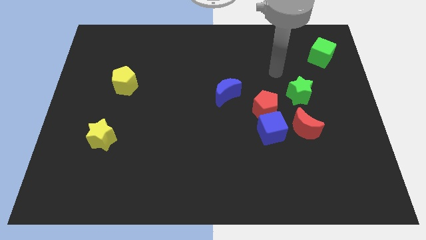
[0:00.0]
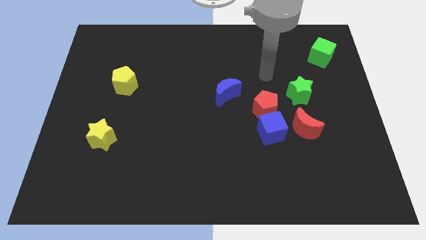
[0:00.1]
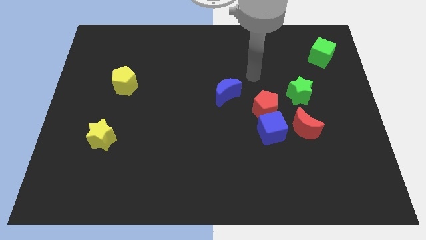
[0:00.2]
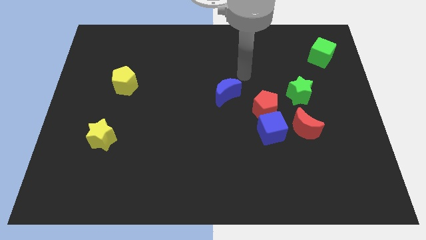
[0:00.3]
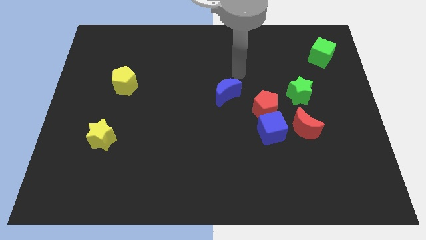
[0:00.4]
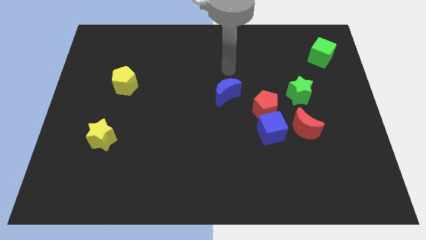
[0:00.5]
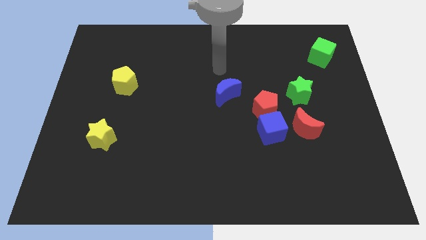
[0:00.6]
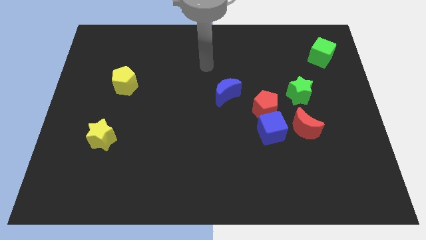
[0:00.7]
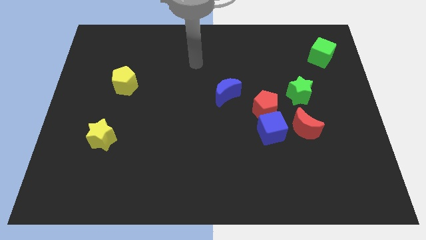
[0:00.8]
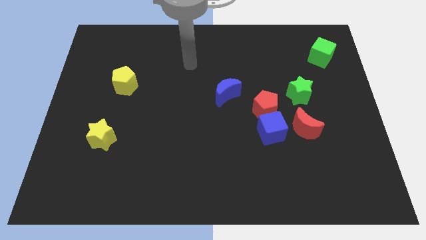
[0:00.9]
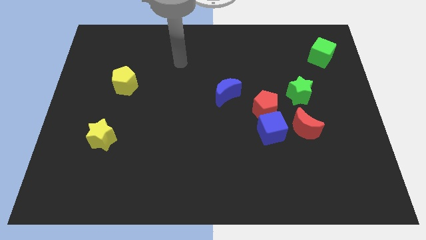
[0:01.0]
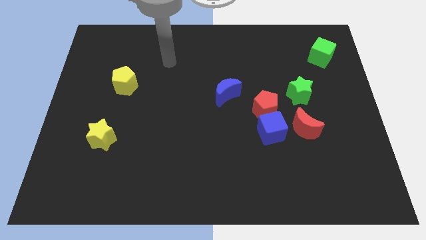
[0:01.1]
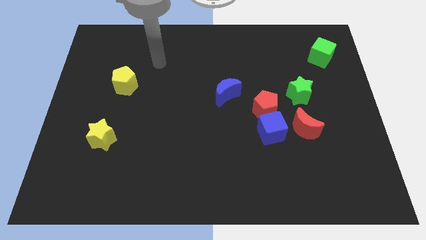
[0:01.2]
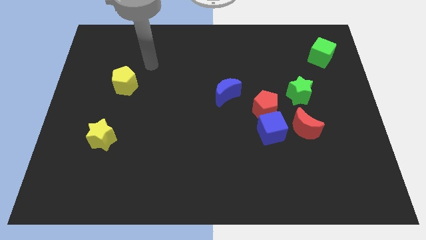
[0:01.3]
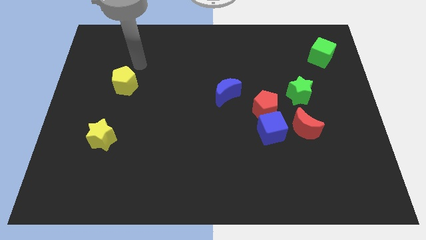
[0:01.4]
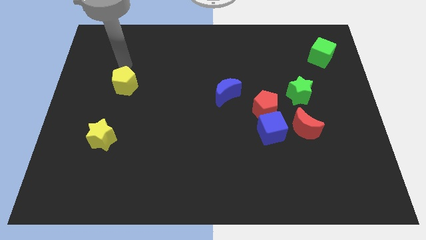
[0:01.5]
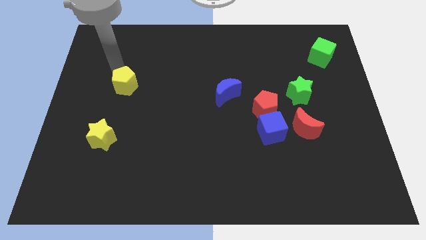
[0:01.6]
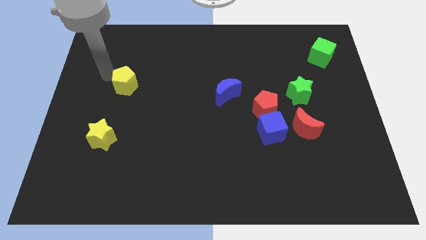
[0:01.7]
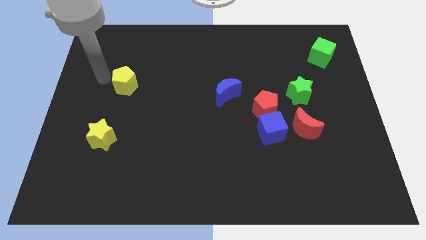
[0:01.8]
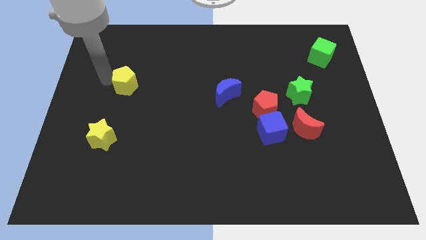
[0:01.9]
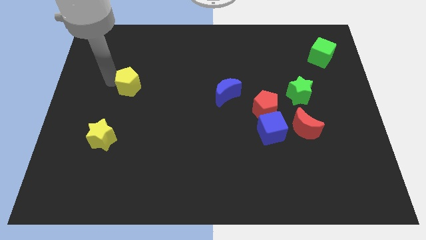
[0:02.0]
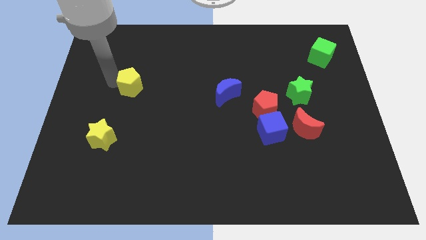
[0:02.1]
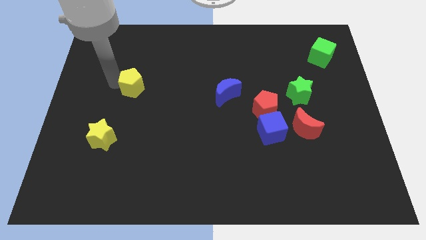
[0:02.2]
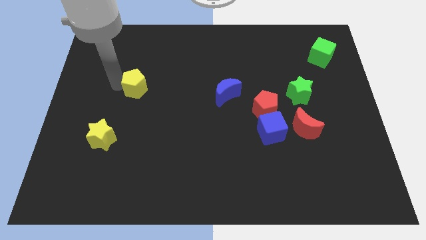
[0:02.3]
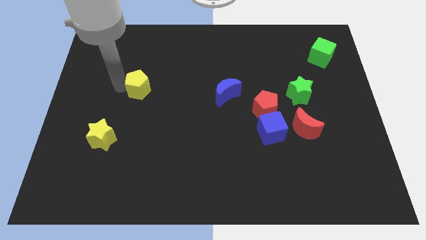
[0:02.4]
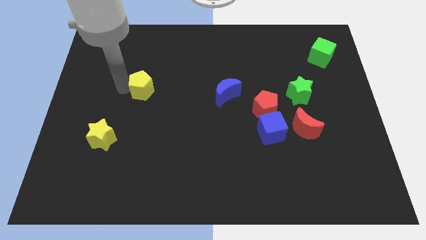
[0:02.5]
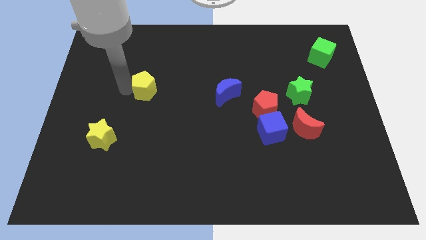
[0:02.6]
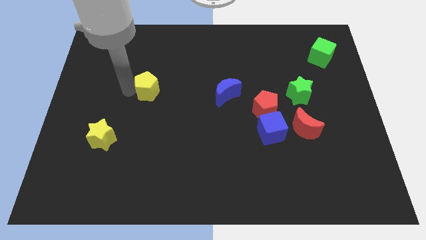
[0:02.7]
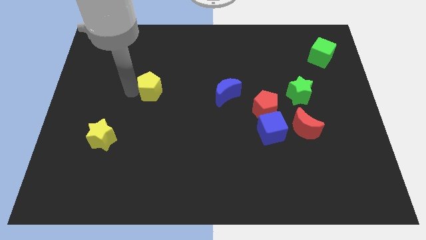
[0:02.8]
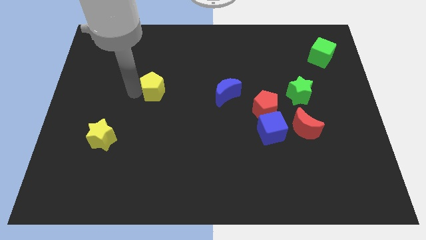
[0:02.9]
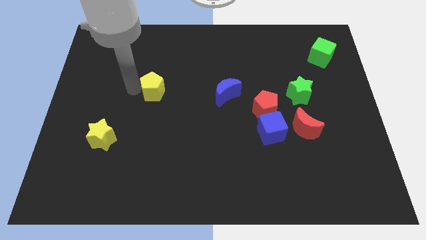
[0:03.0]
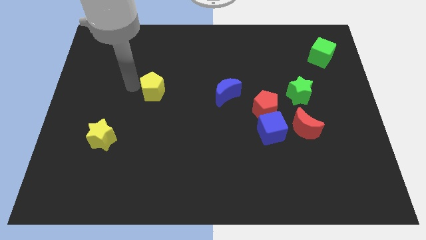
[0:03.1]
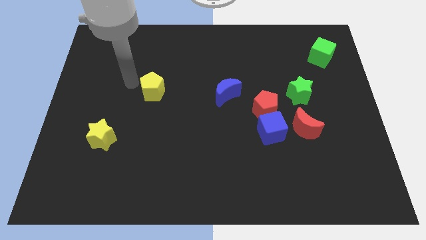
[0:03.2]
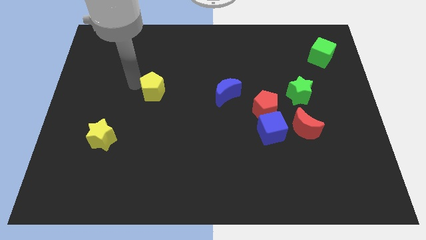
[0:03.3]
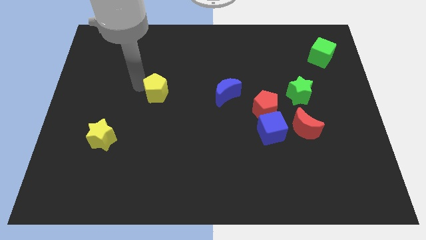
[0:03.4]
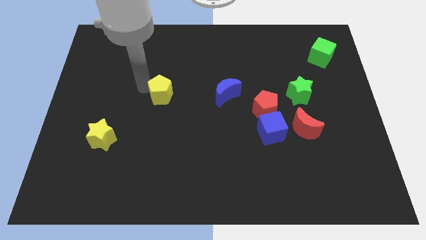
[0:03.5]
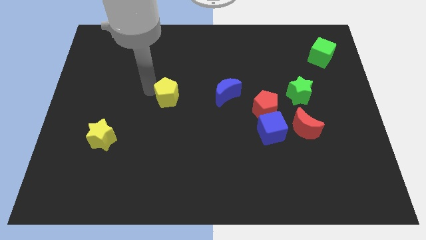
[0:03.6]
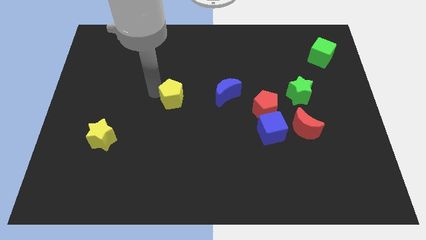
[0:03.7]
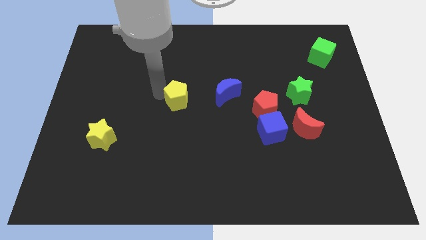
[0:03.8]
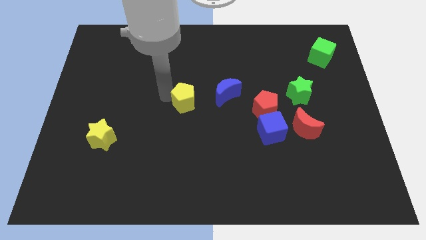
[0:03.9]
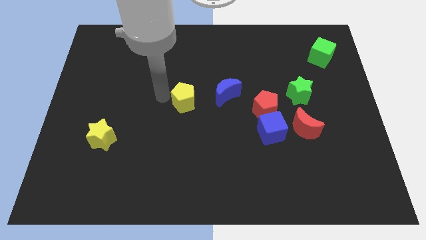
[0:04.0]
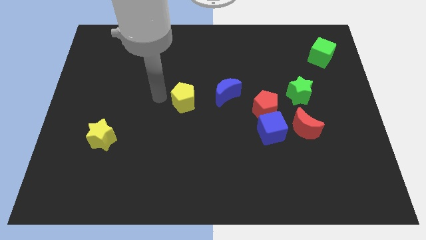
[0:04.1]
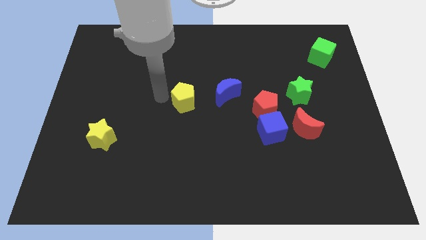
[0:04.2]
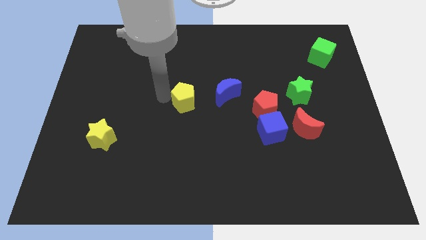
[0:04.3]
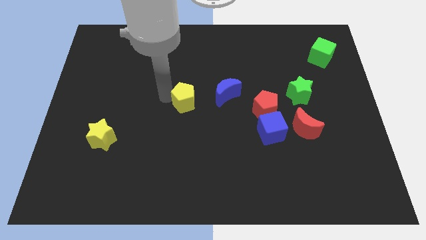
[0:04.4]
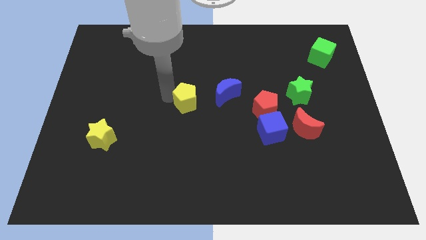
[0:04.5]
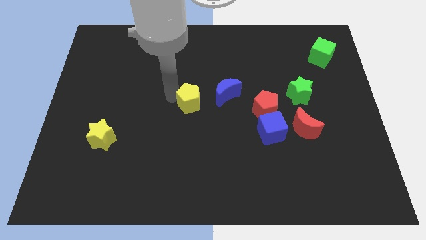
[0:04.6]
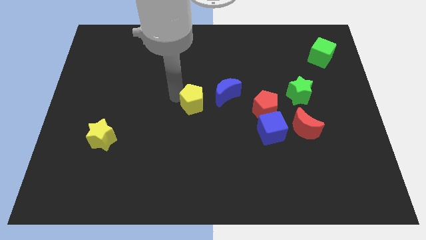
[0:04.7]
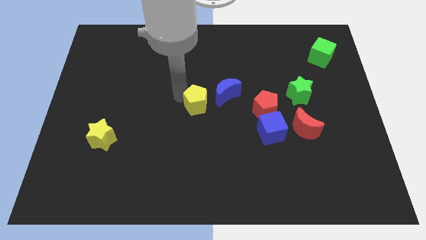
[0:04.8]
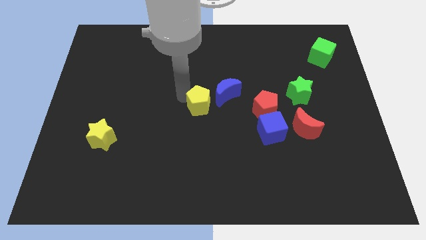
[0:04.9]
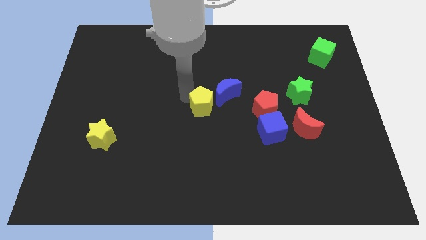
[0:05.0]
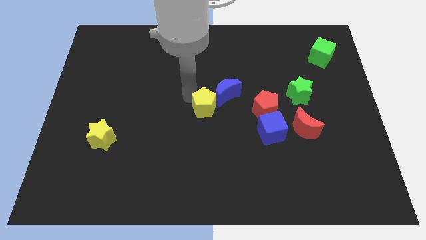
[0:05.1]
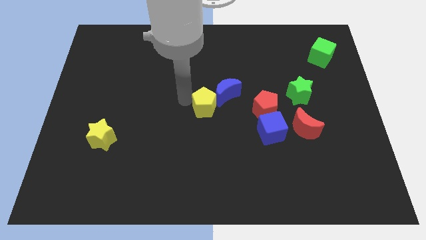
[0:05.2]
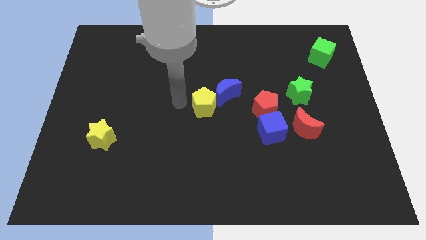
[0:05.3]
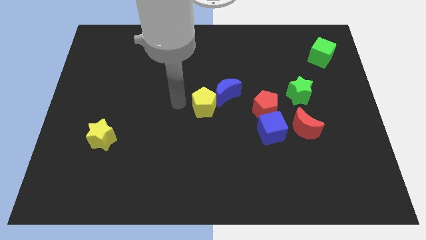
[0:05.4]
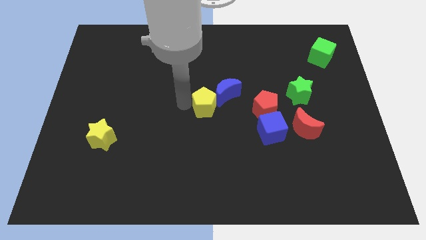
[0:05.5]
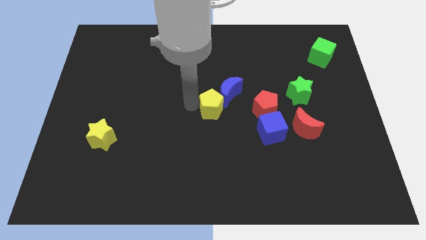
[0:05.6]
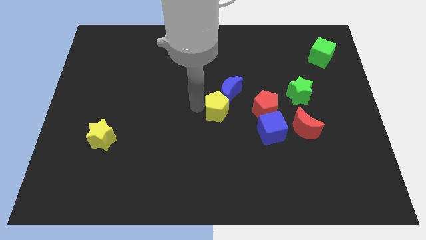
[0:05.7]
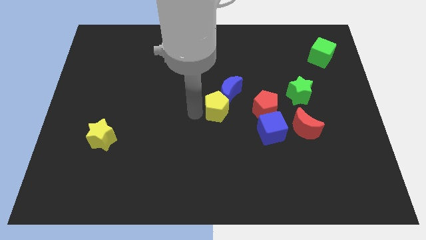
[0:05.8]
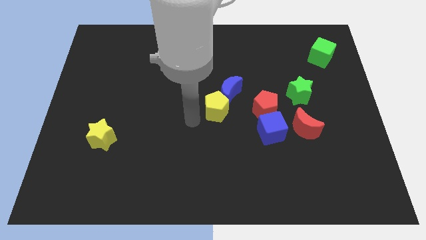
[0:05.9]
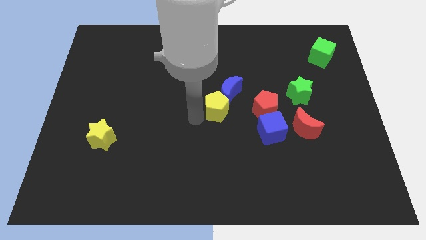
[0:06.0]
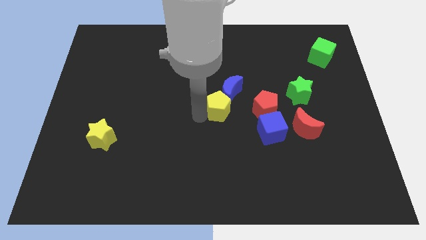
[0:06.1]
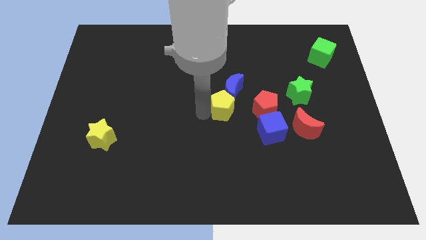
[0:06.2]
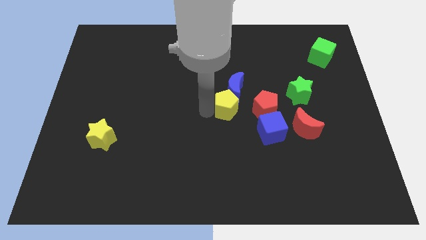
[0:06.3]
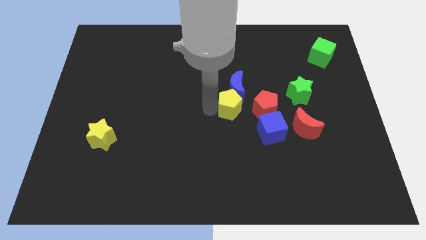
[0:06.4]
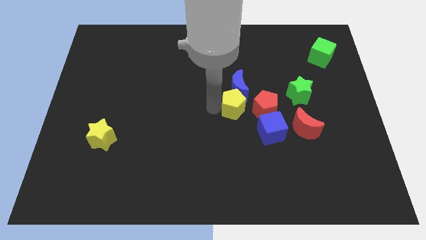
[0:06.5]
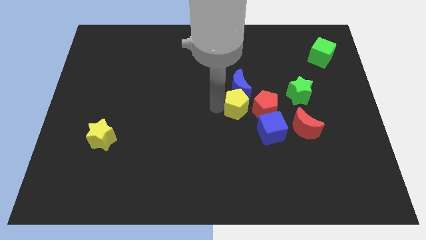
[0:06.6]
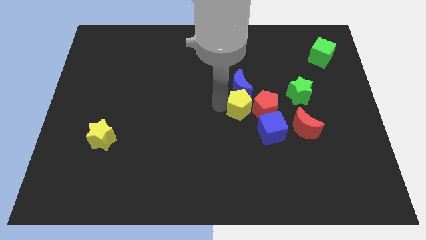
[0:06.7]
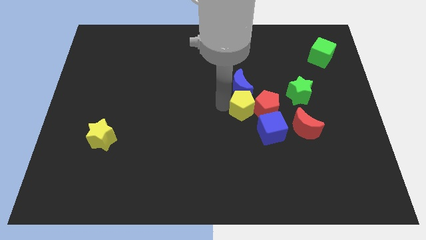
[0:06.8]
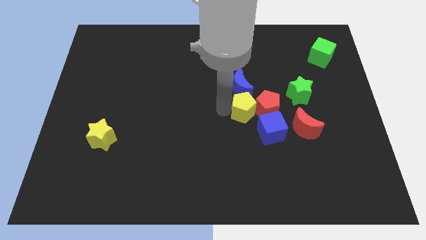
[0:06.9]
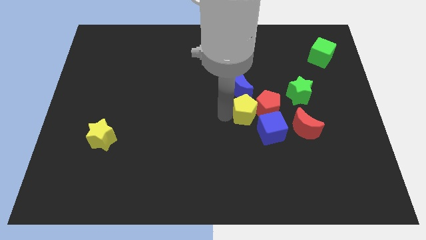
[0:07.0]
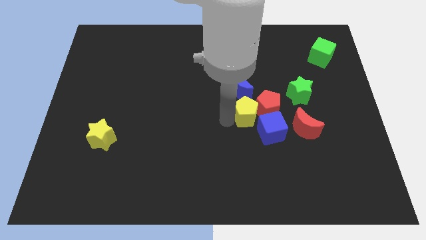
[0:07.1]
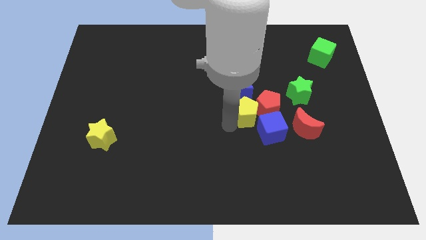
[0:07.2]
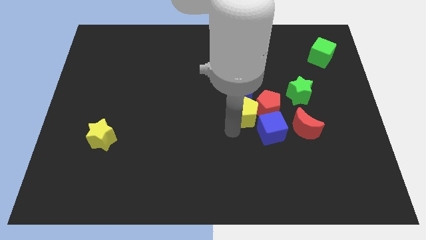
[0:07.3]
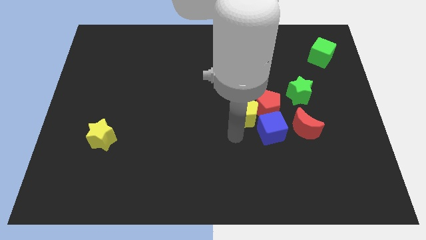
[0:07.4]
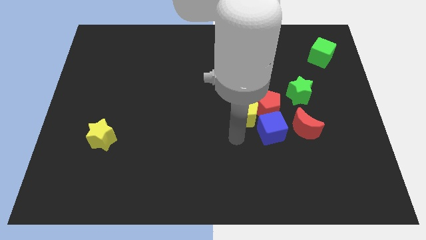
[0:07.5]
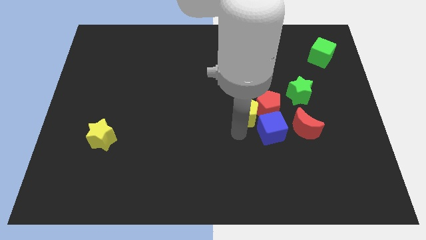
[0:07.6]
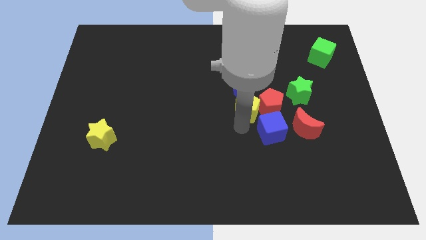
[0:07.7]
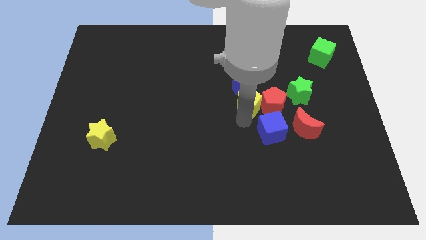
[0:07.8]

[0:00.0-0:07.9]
slide the yellow pentagon to the left side of the green star
